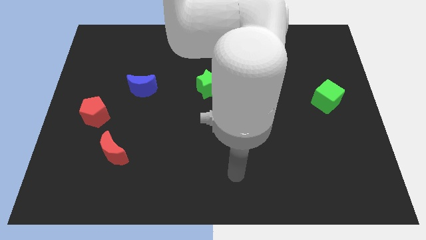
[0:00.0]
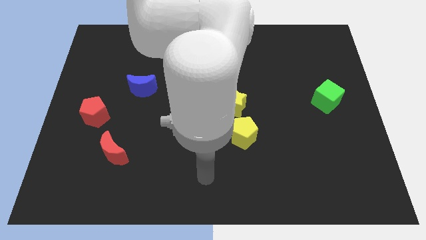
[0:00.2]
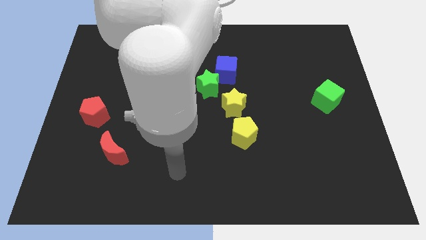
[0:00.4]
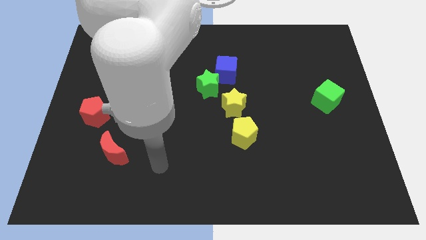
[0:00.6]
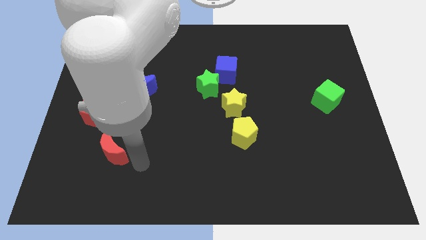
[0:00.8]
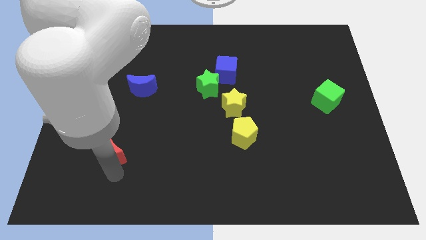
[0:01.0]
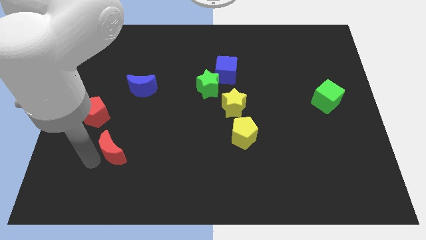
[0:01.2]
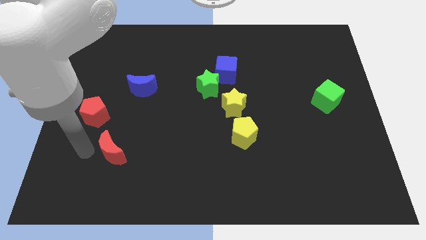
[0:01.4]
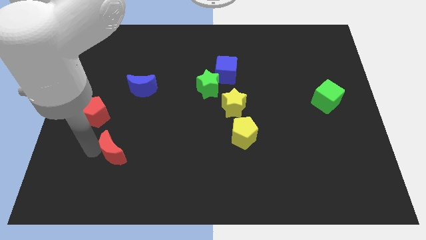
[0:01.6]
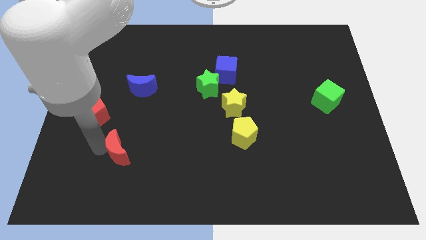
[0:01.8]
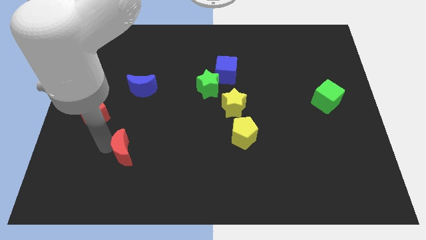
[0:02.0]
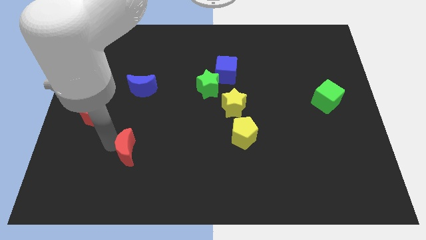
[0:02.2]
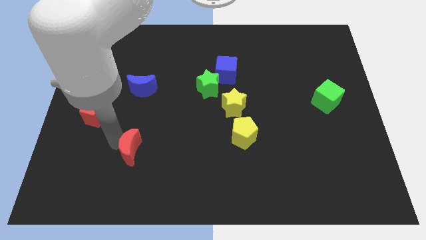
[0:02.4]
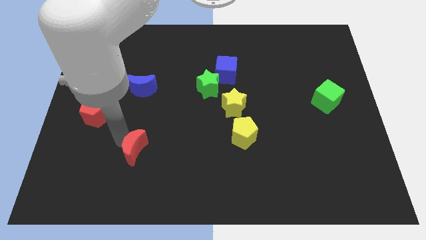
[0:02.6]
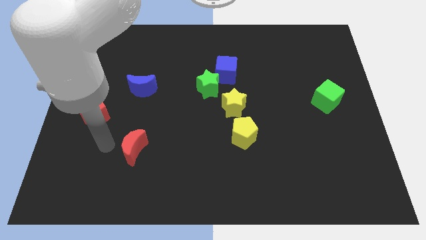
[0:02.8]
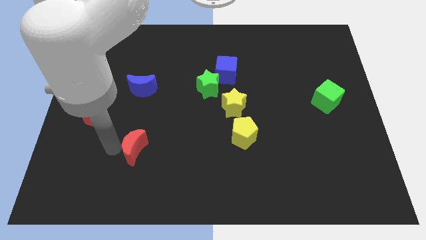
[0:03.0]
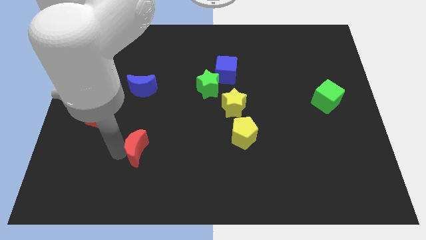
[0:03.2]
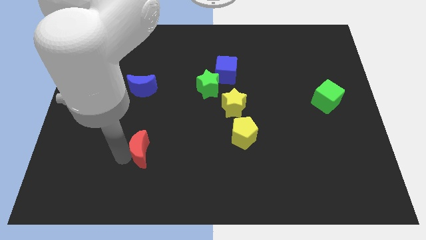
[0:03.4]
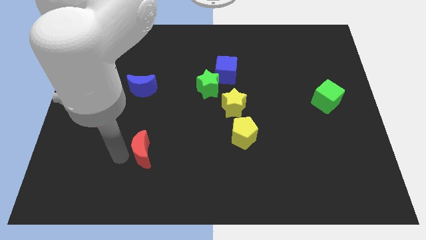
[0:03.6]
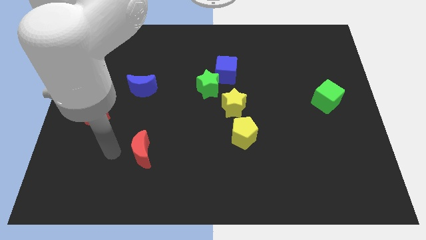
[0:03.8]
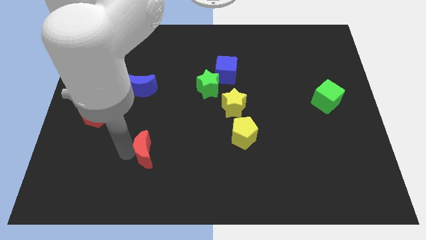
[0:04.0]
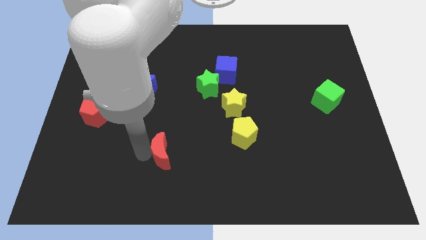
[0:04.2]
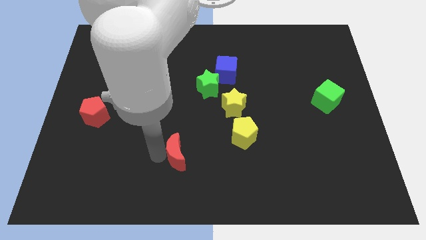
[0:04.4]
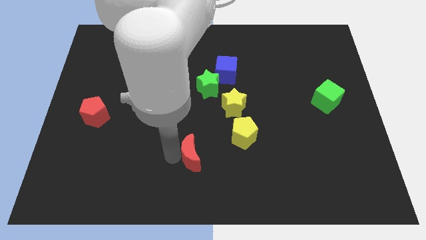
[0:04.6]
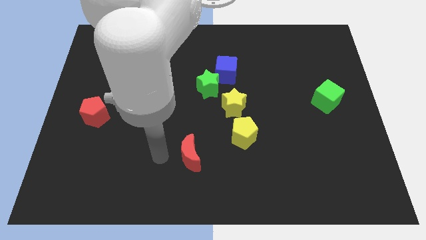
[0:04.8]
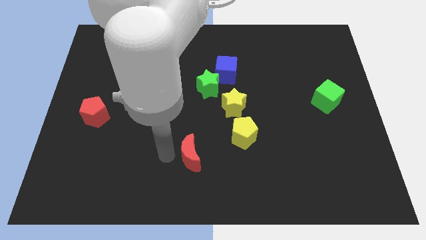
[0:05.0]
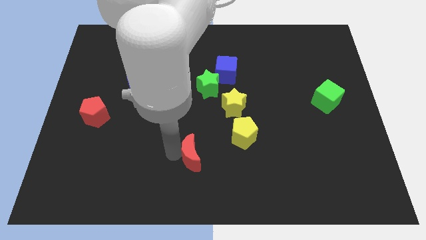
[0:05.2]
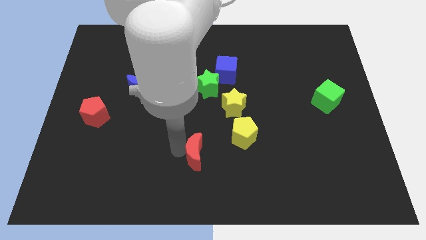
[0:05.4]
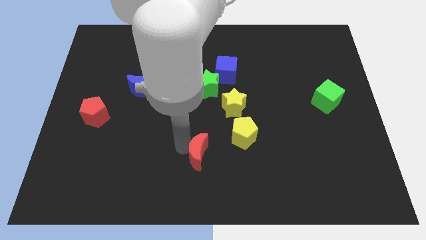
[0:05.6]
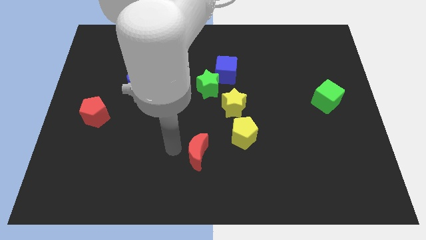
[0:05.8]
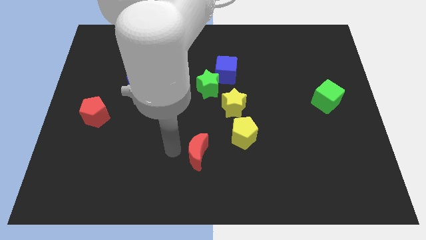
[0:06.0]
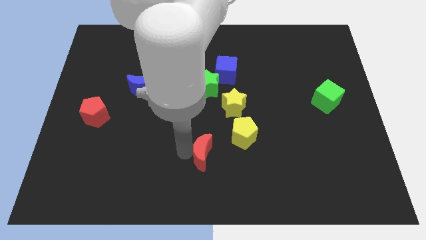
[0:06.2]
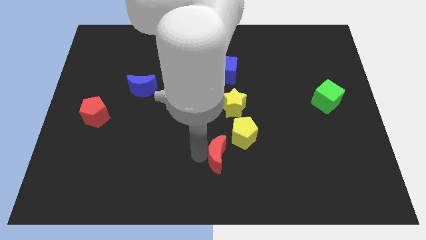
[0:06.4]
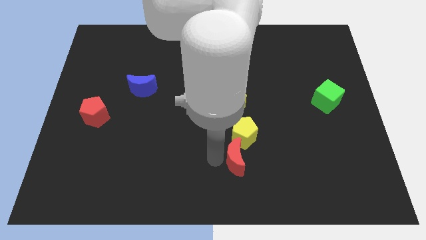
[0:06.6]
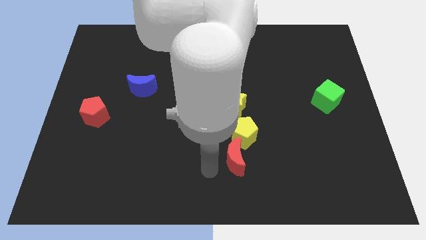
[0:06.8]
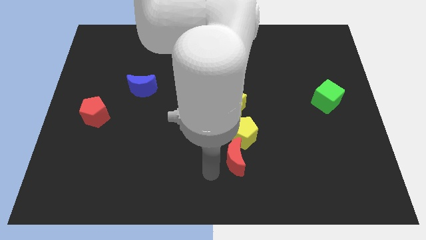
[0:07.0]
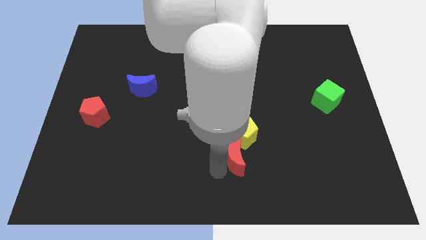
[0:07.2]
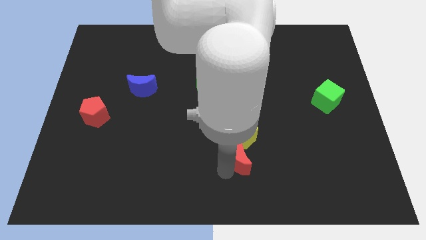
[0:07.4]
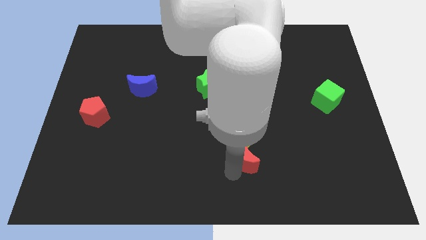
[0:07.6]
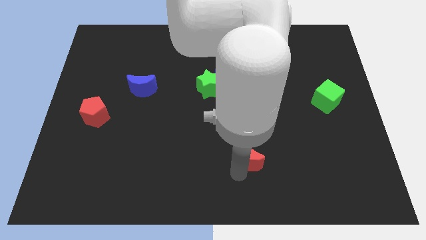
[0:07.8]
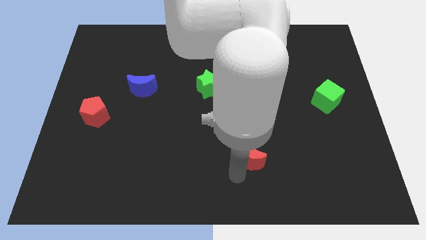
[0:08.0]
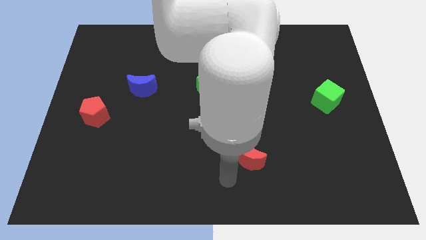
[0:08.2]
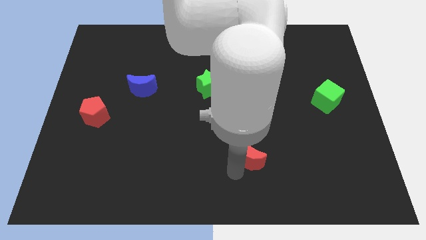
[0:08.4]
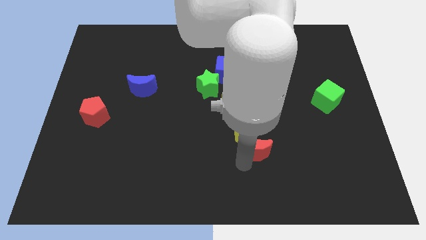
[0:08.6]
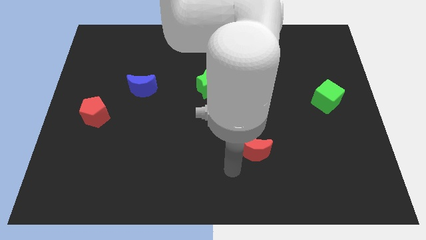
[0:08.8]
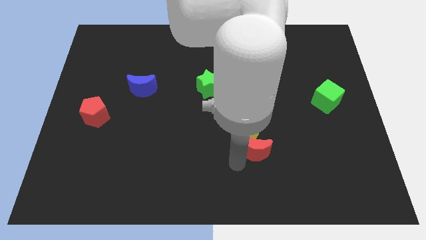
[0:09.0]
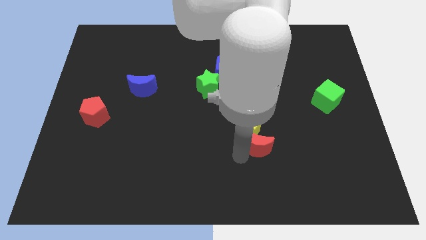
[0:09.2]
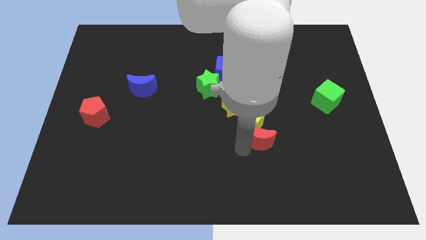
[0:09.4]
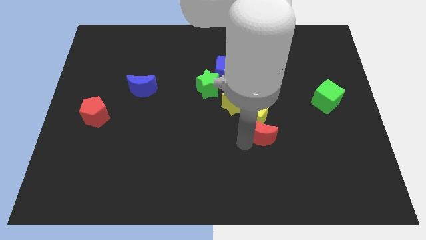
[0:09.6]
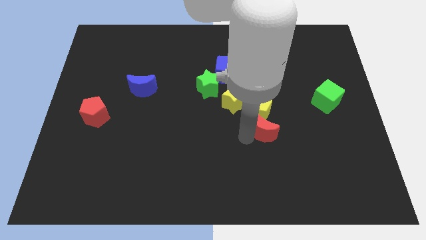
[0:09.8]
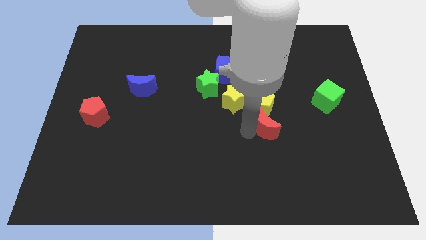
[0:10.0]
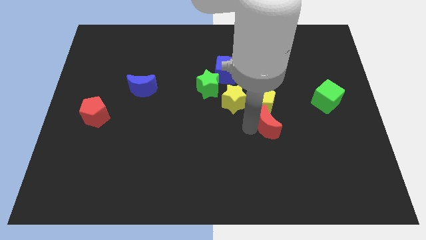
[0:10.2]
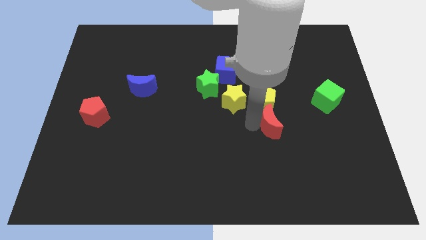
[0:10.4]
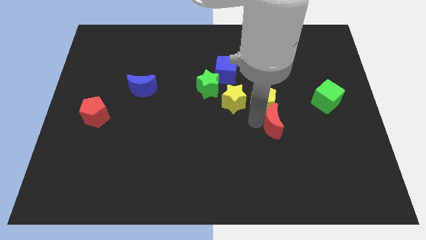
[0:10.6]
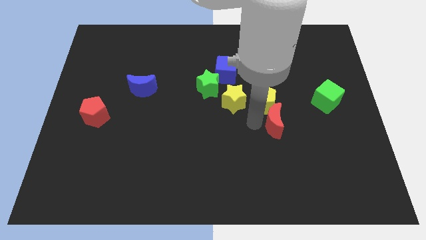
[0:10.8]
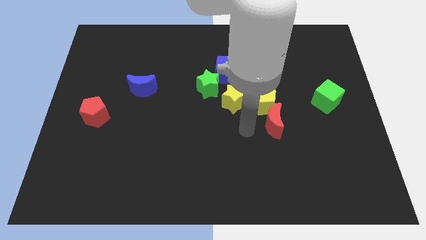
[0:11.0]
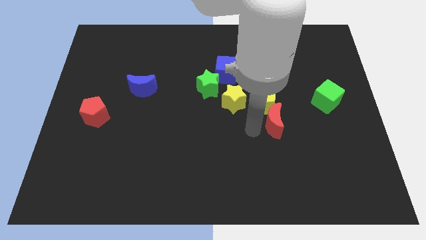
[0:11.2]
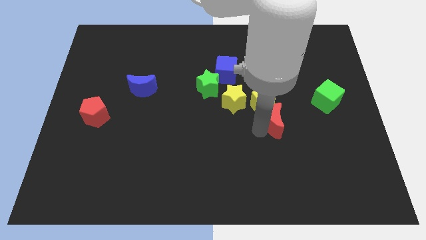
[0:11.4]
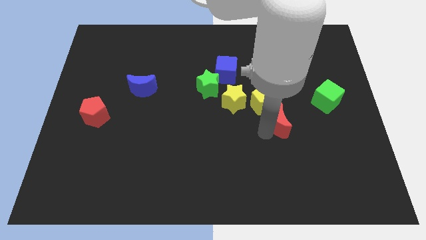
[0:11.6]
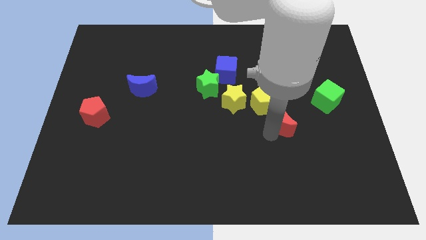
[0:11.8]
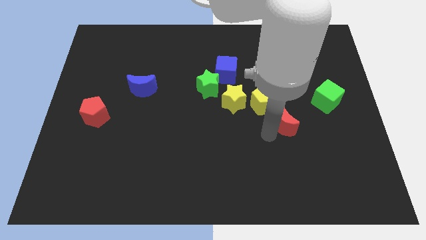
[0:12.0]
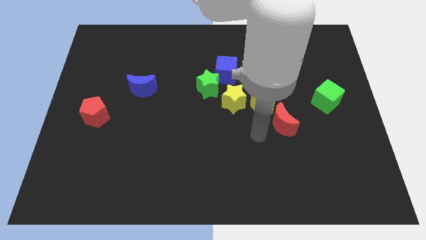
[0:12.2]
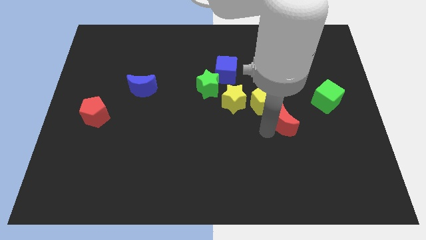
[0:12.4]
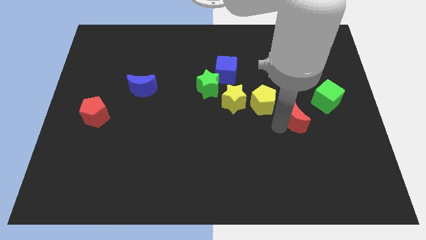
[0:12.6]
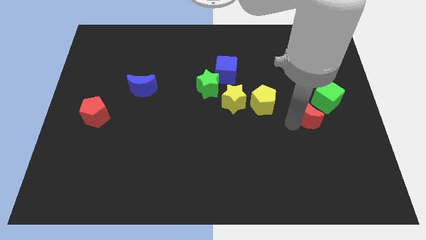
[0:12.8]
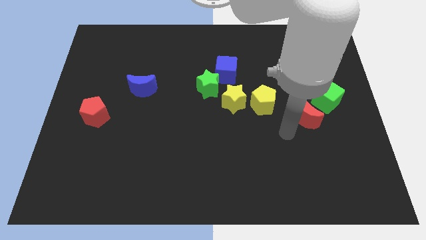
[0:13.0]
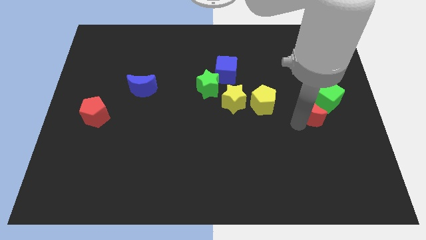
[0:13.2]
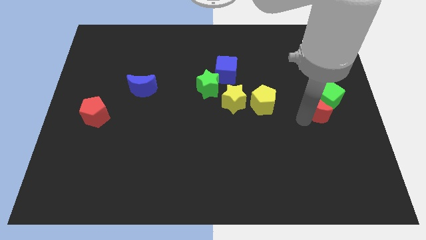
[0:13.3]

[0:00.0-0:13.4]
move the red moon to the green cube

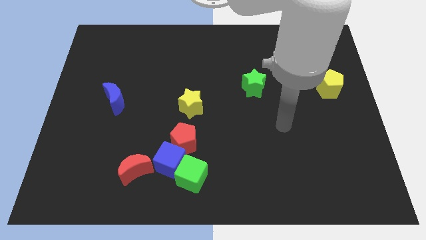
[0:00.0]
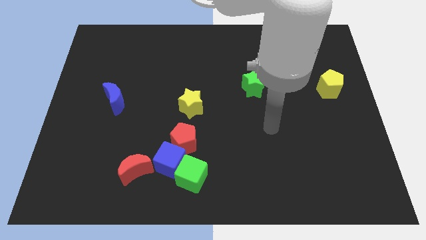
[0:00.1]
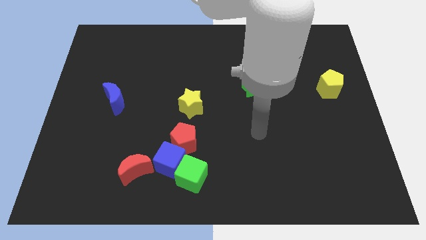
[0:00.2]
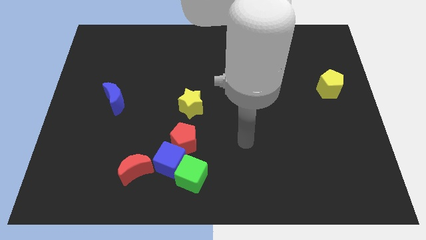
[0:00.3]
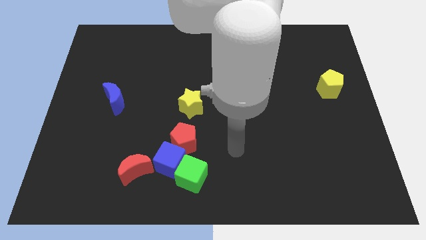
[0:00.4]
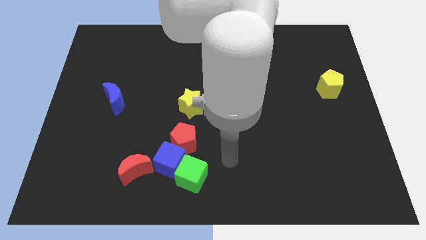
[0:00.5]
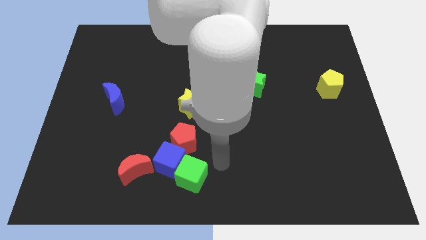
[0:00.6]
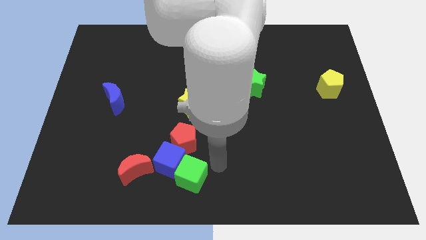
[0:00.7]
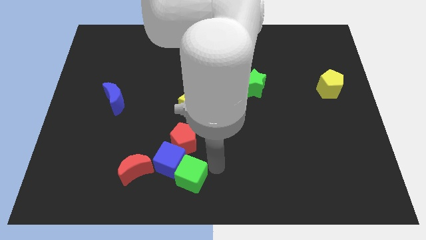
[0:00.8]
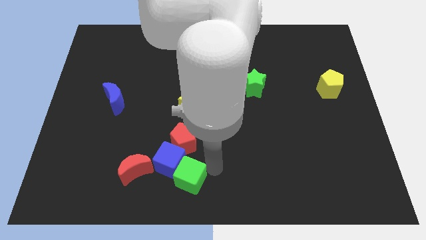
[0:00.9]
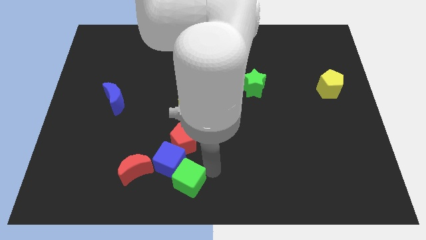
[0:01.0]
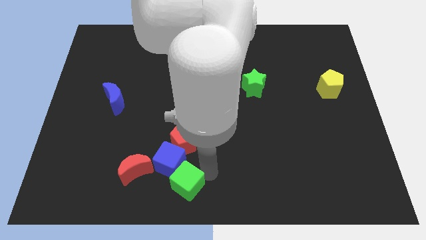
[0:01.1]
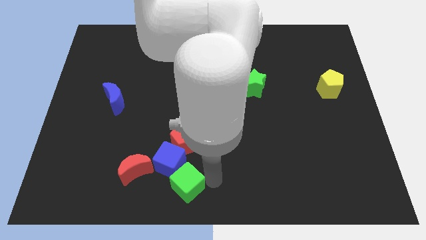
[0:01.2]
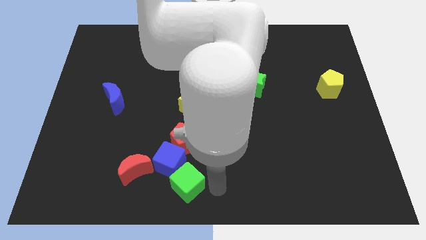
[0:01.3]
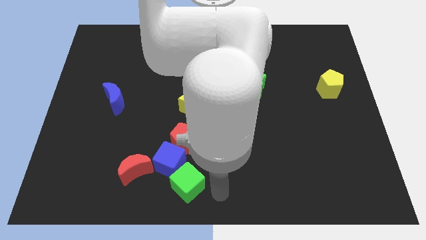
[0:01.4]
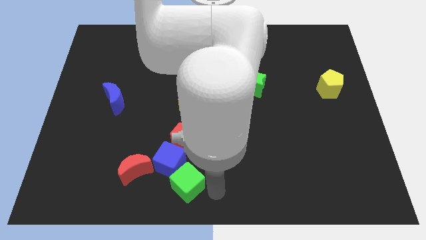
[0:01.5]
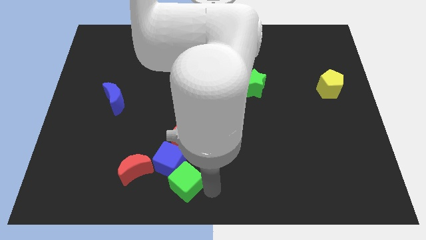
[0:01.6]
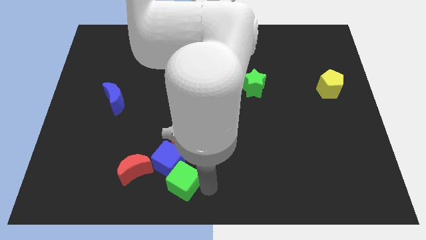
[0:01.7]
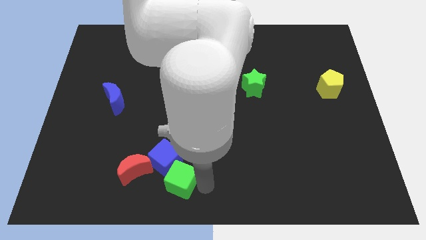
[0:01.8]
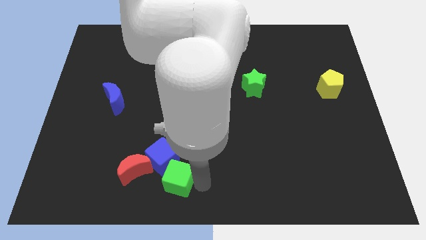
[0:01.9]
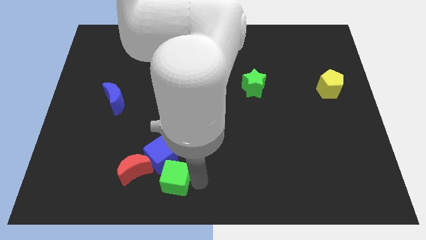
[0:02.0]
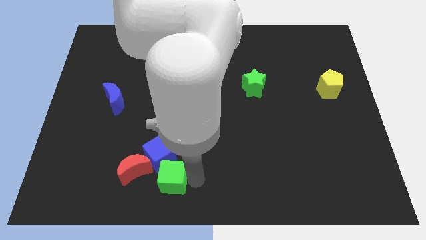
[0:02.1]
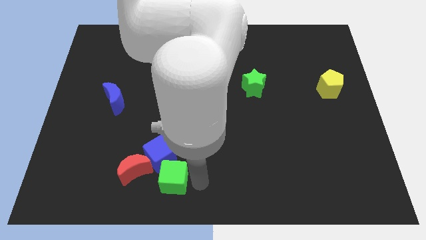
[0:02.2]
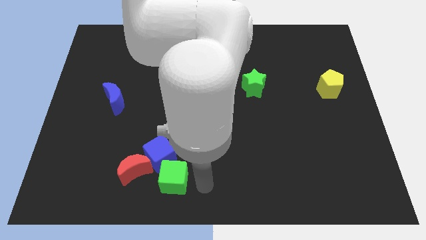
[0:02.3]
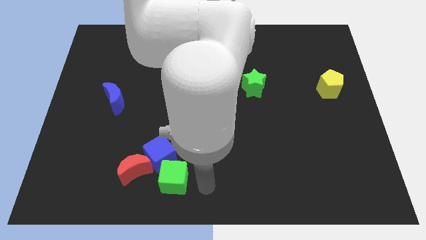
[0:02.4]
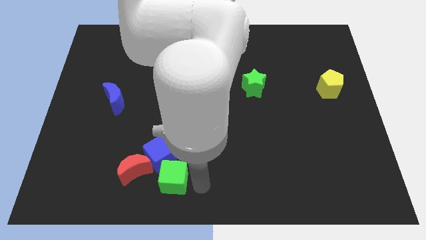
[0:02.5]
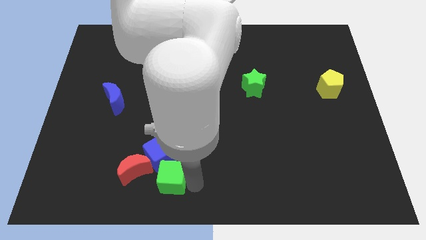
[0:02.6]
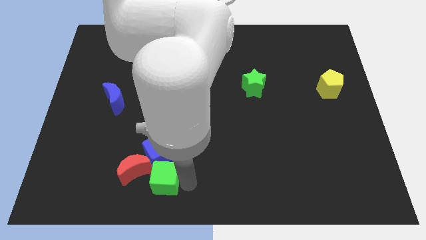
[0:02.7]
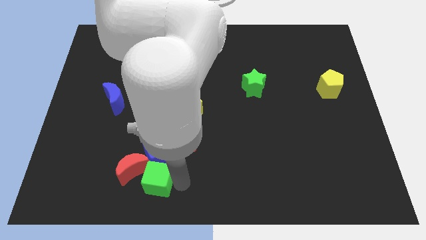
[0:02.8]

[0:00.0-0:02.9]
push the green cube to the red moon
